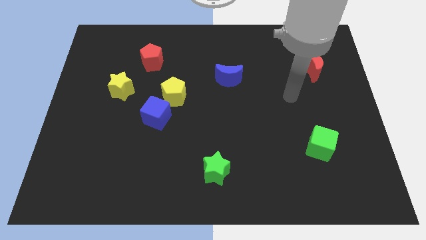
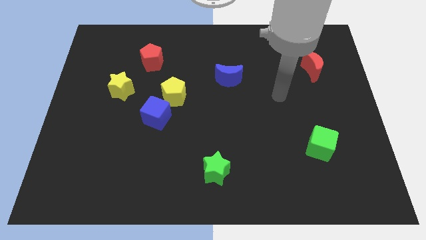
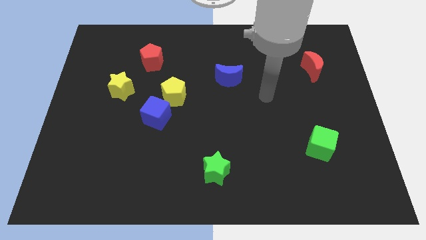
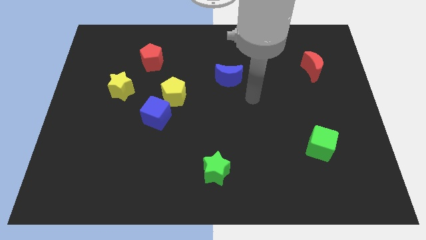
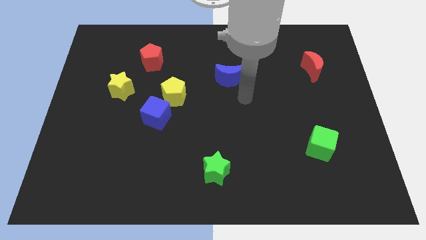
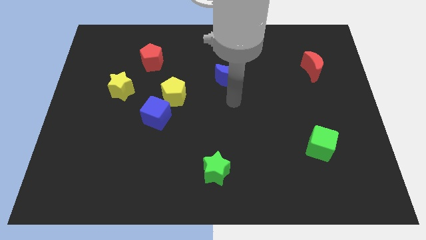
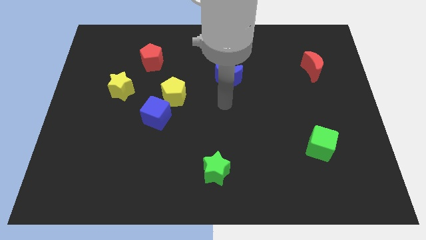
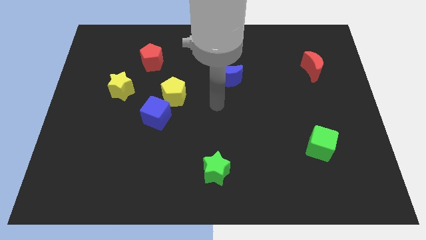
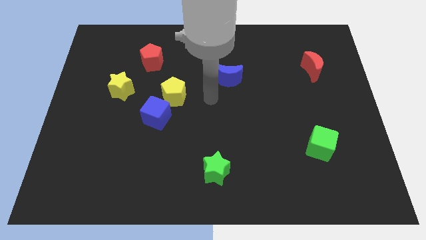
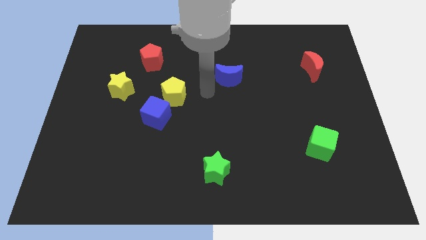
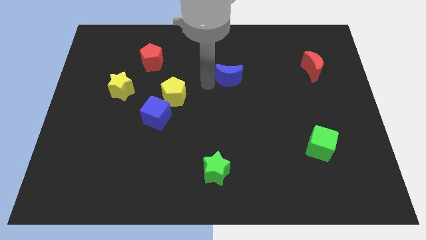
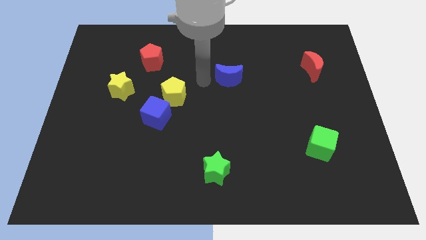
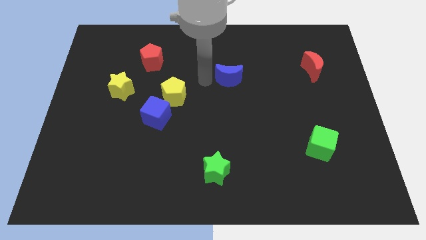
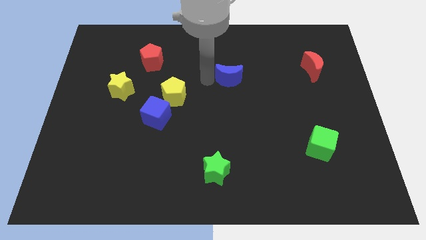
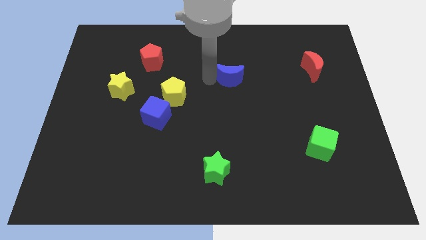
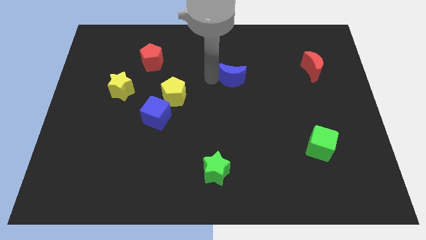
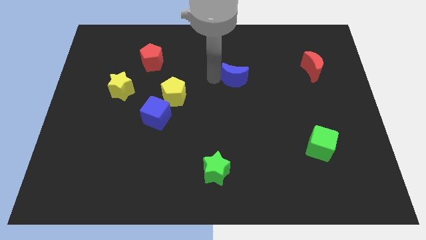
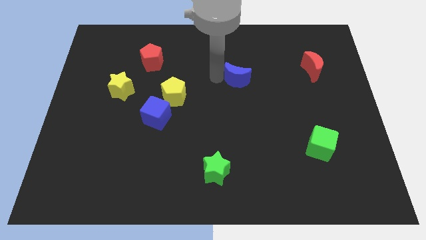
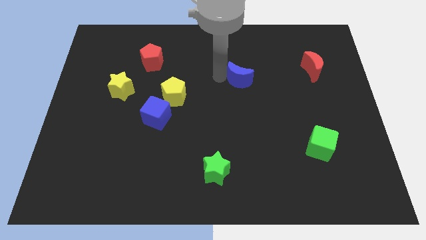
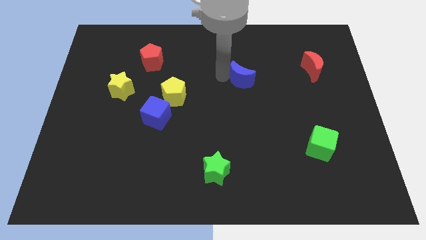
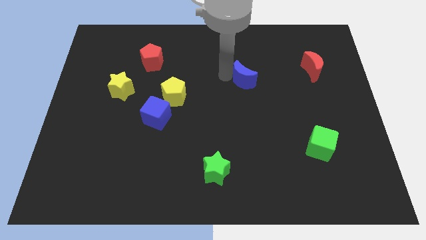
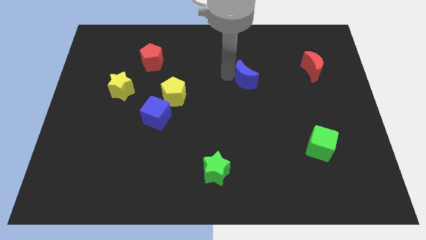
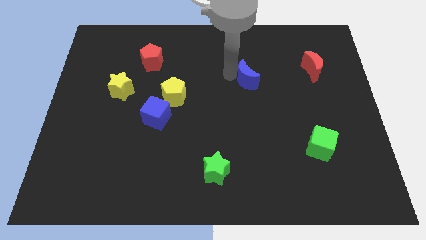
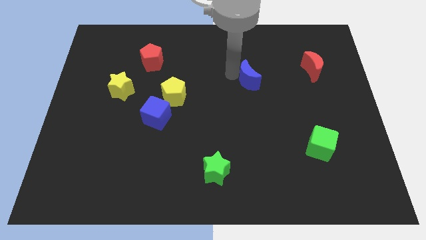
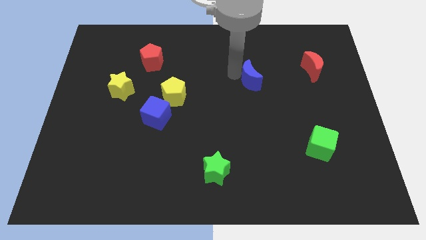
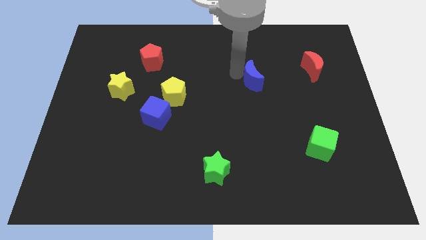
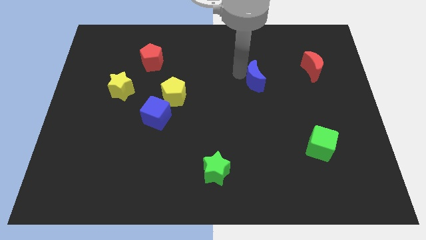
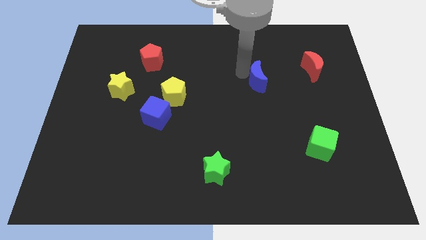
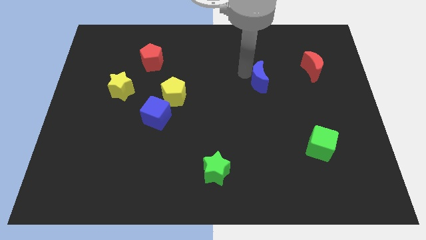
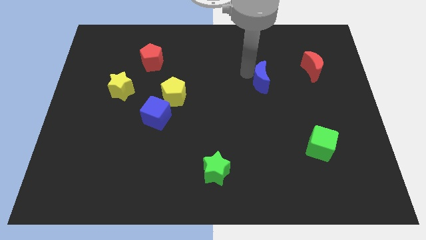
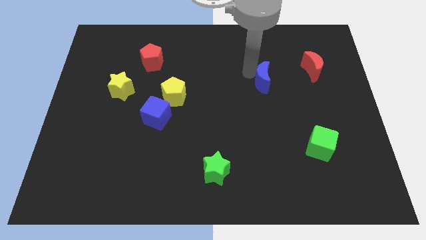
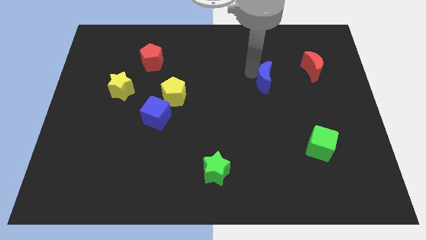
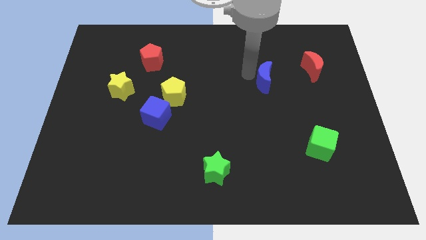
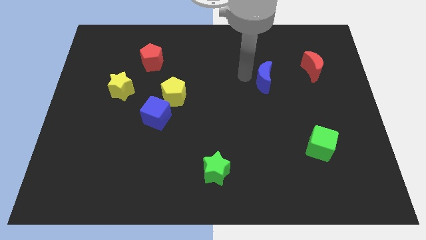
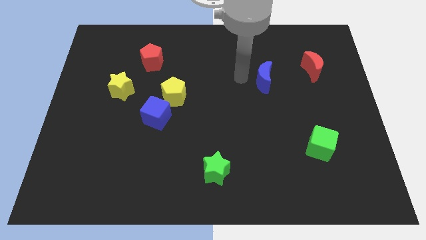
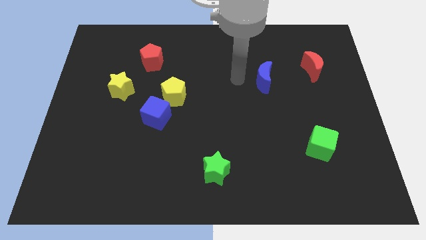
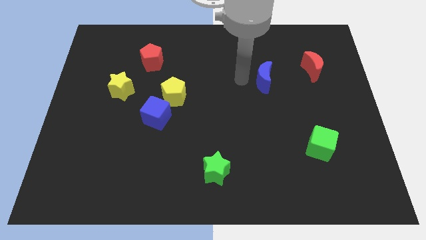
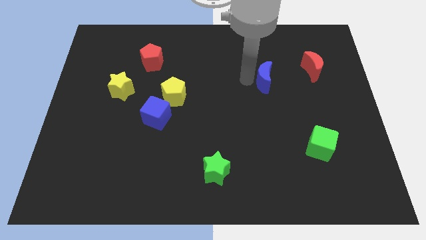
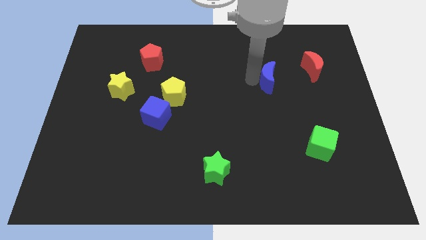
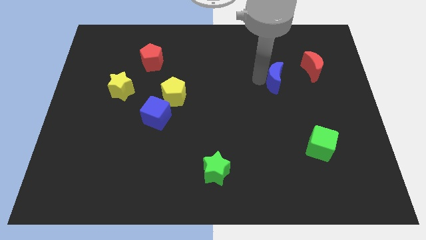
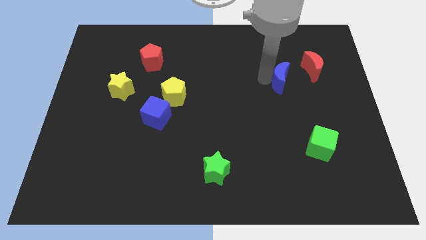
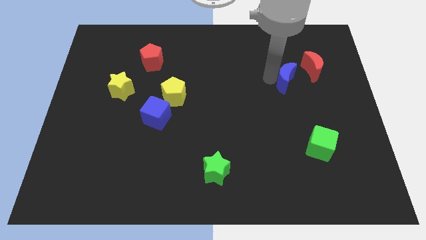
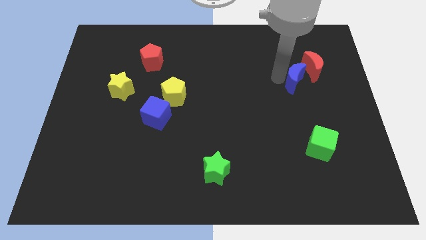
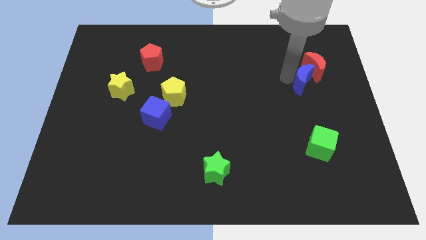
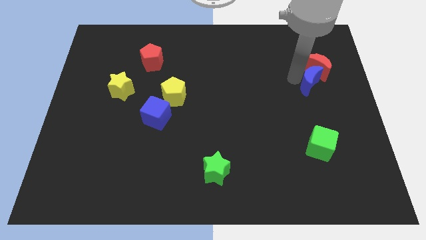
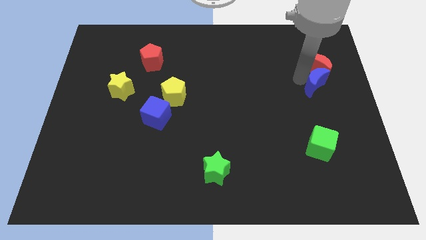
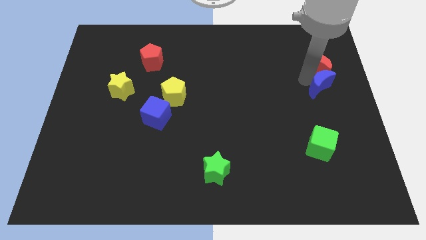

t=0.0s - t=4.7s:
put the blue moon to the right side of the board

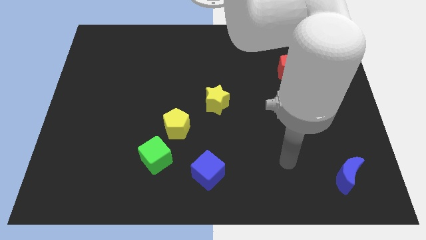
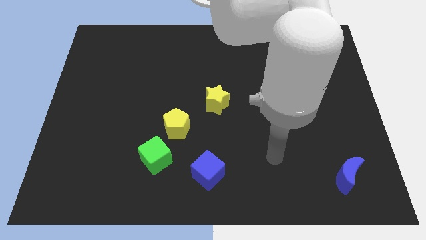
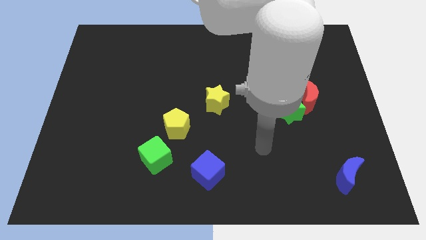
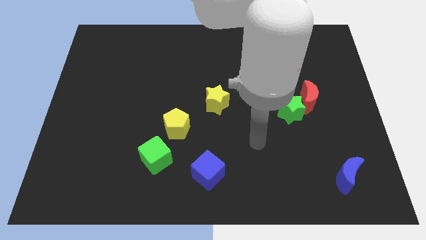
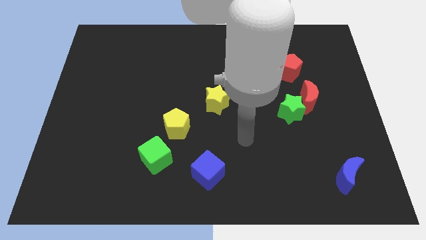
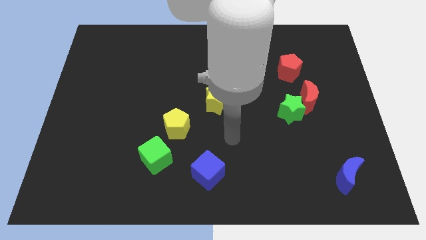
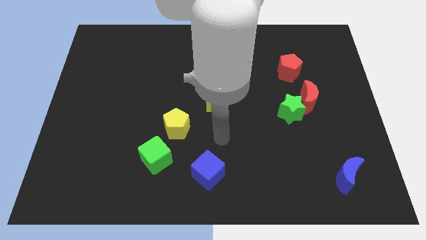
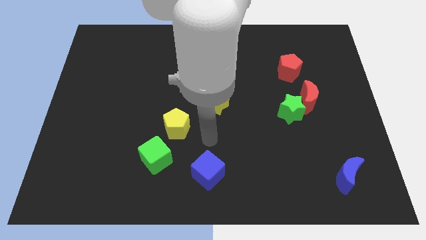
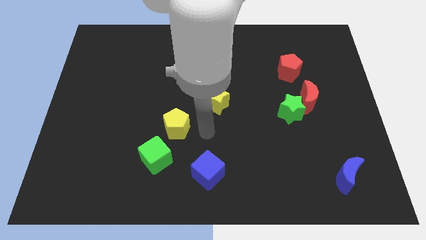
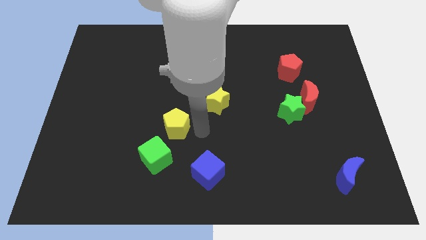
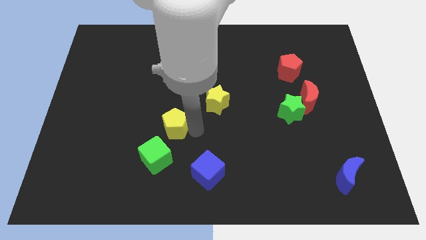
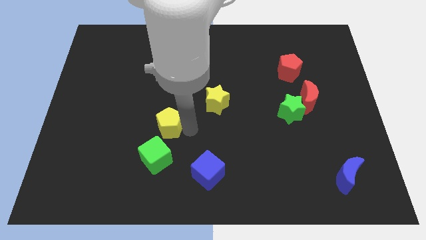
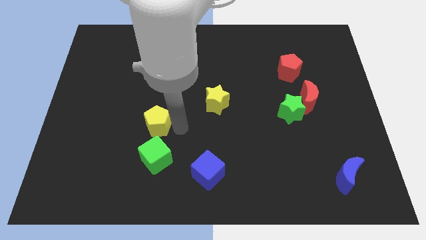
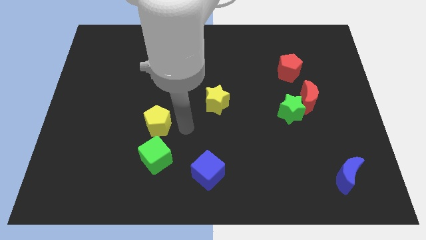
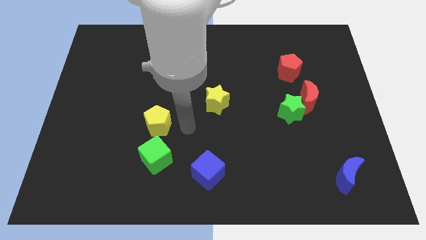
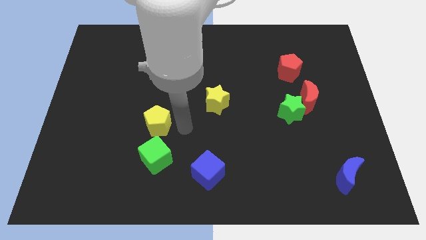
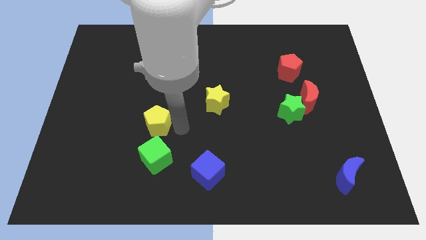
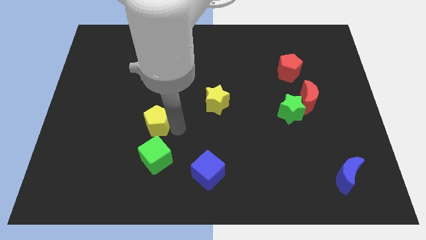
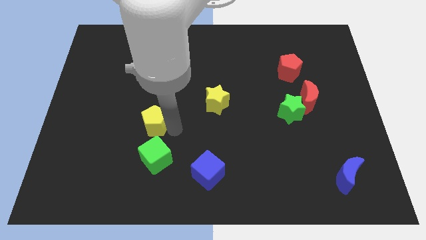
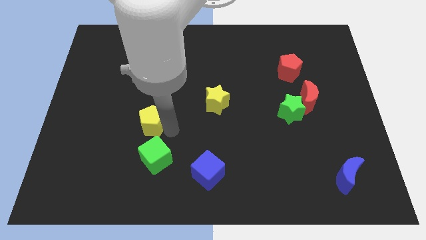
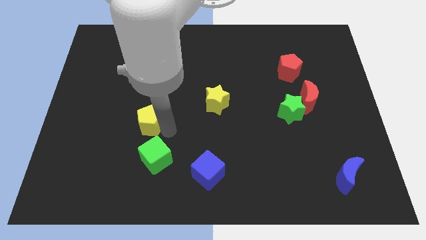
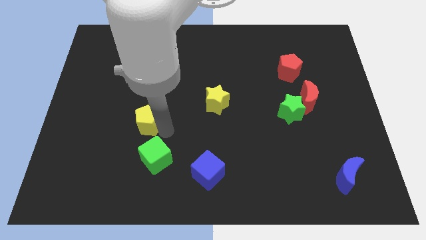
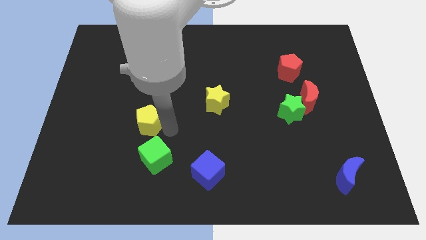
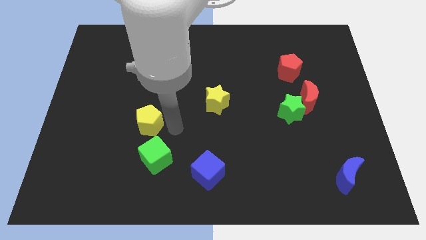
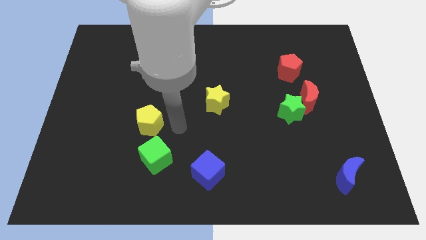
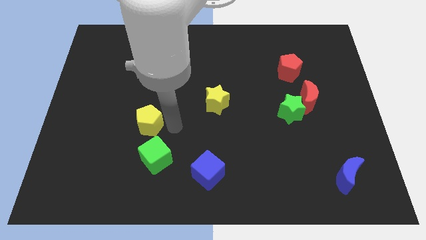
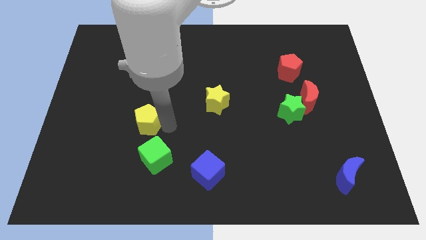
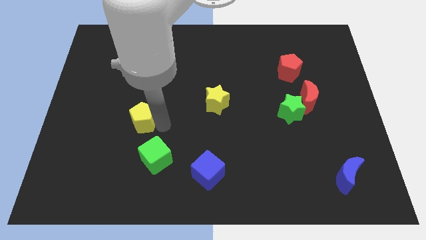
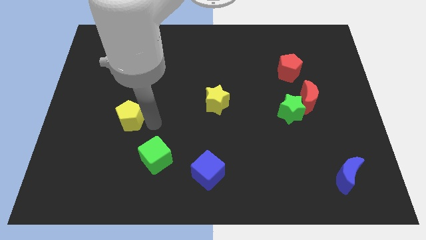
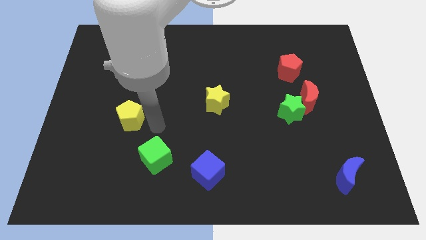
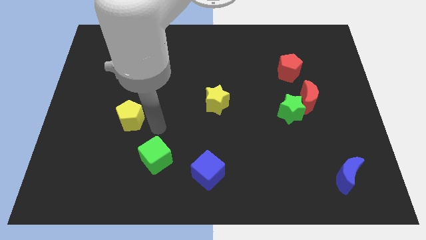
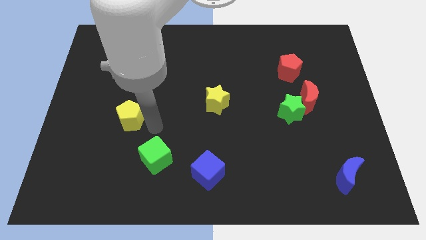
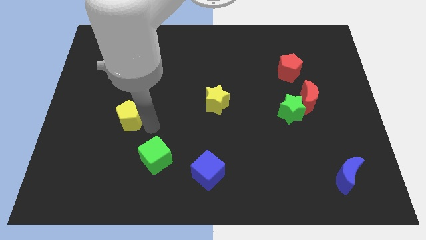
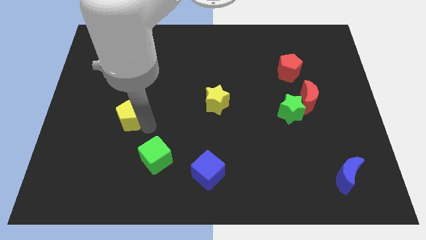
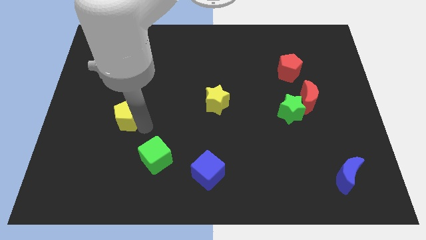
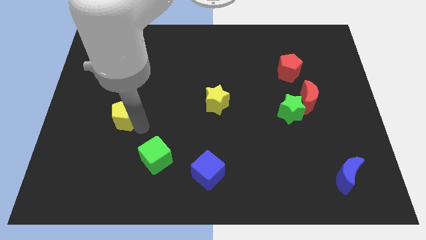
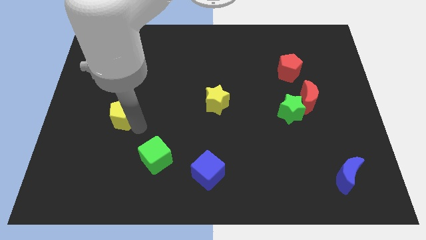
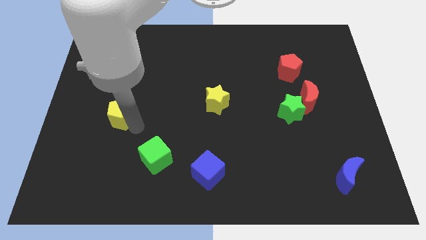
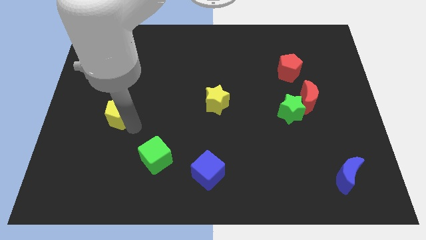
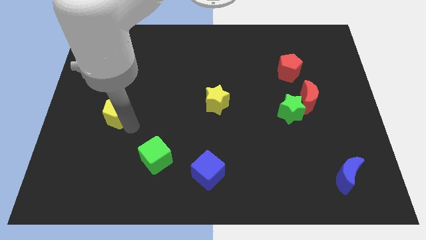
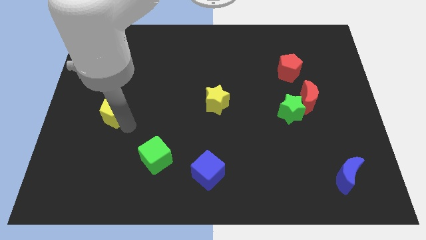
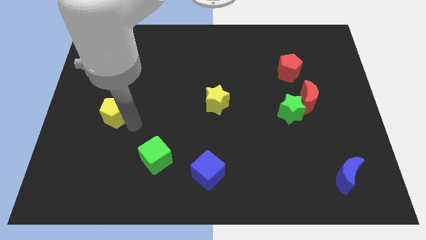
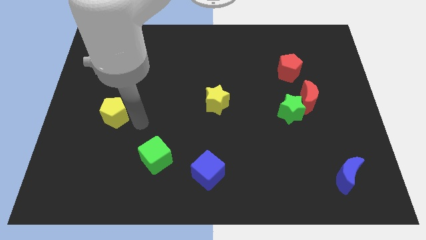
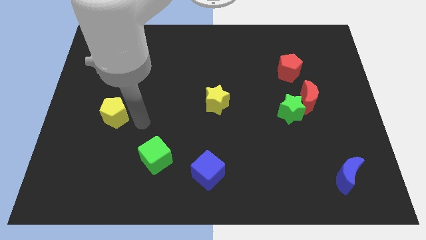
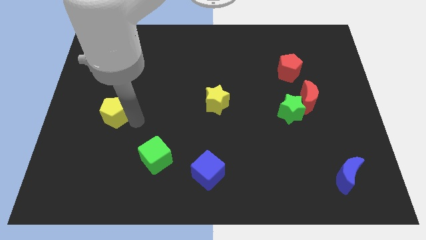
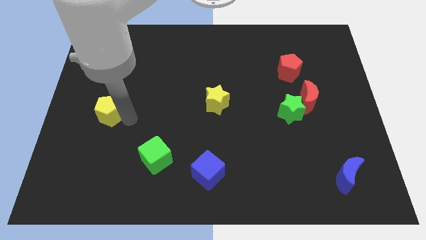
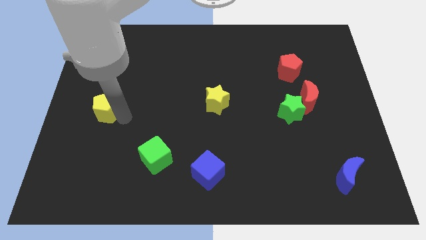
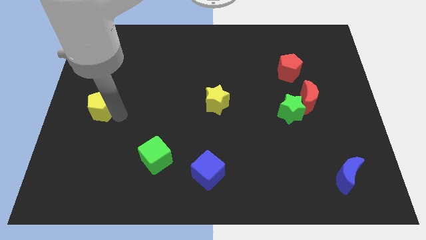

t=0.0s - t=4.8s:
slide the yellow pentagon to the center left
